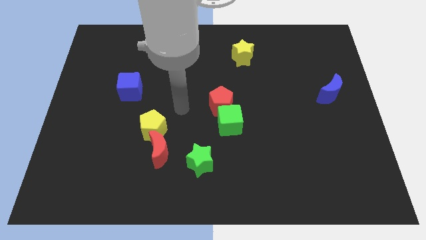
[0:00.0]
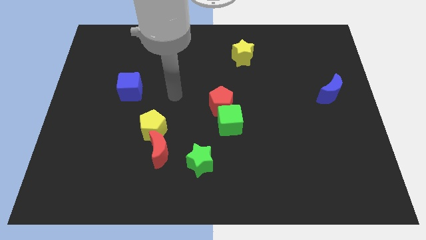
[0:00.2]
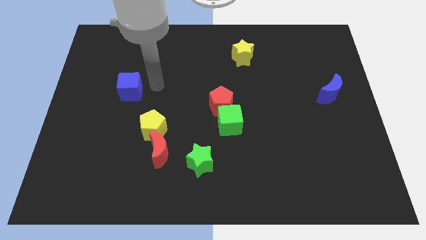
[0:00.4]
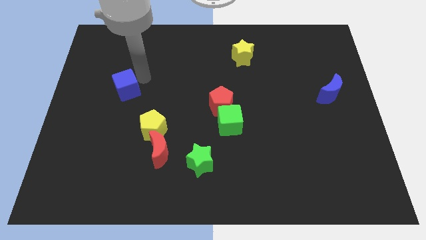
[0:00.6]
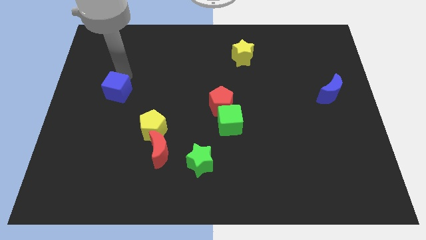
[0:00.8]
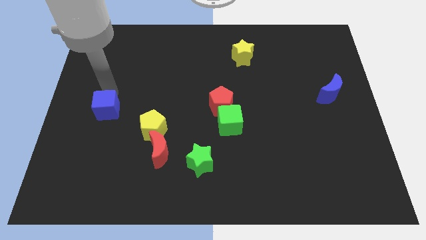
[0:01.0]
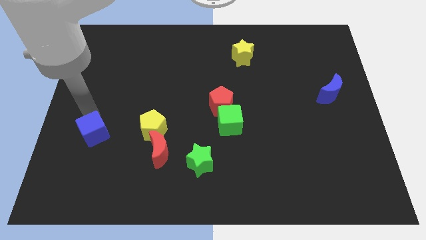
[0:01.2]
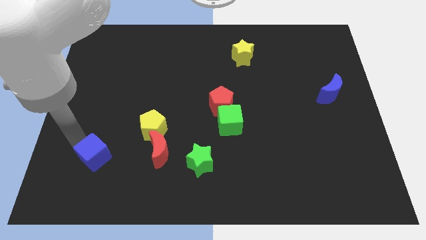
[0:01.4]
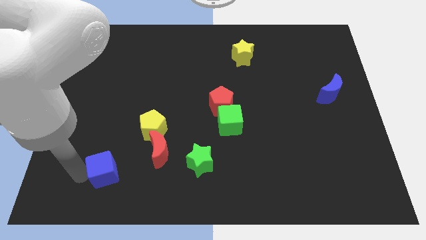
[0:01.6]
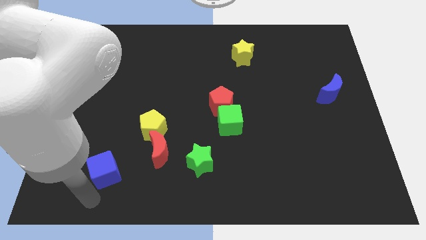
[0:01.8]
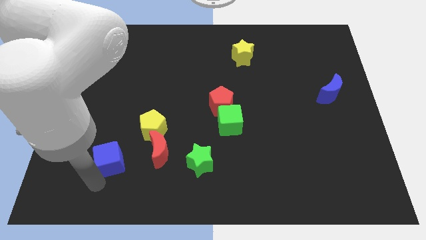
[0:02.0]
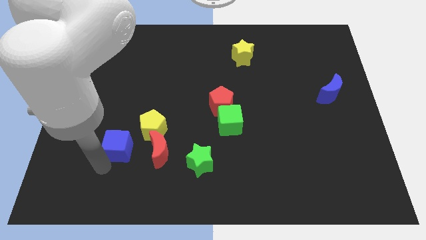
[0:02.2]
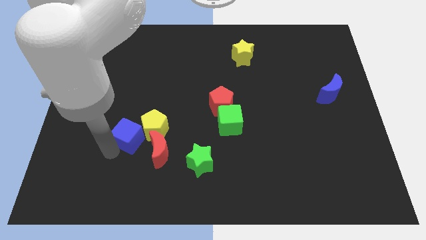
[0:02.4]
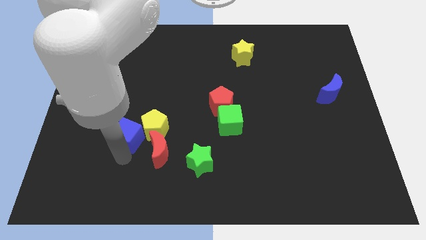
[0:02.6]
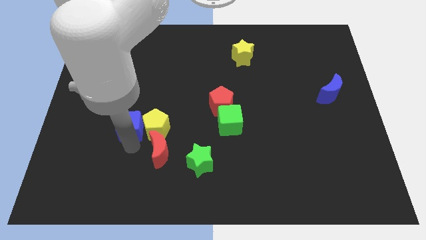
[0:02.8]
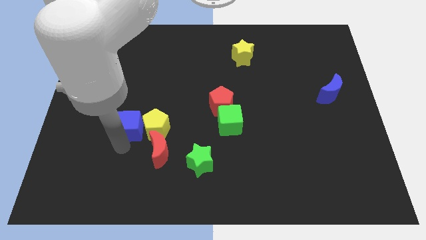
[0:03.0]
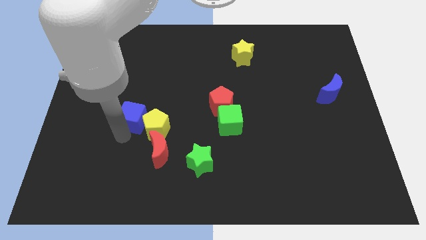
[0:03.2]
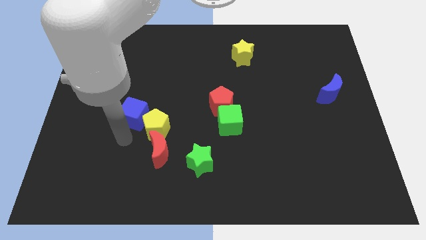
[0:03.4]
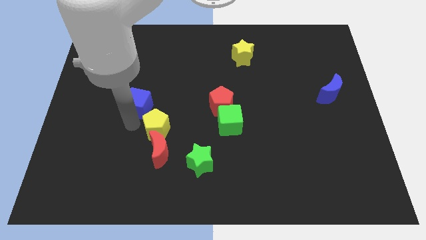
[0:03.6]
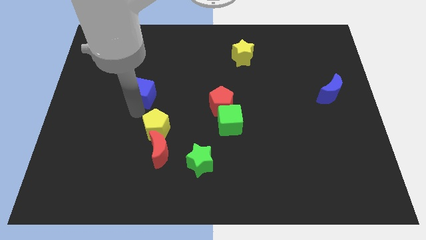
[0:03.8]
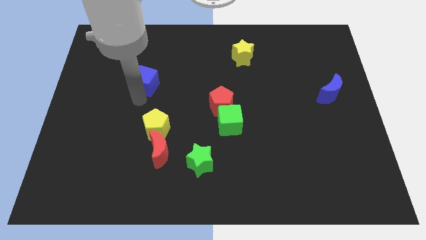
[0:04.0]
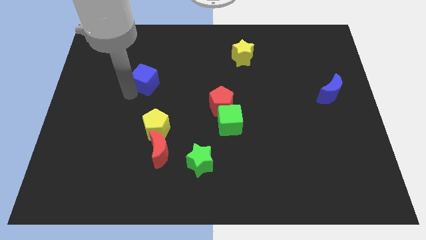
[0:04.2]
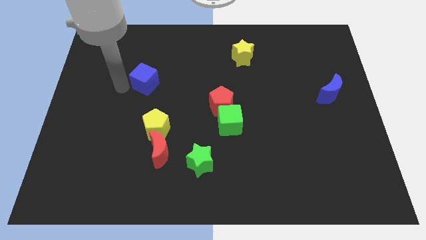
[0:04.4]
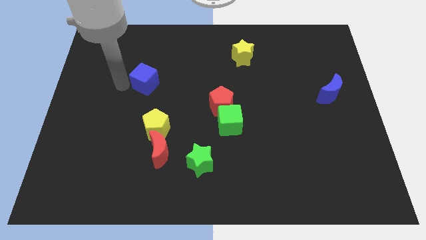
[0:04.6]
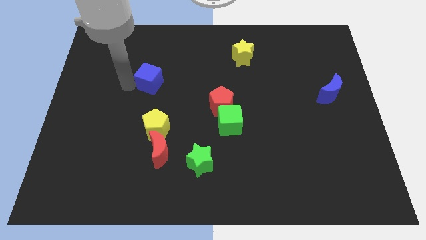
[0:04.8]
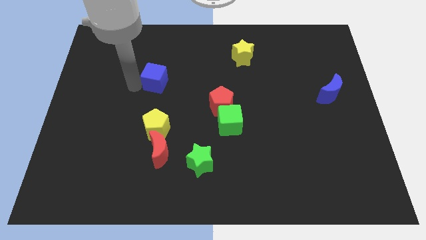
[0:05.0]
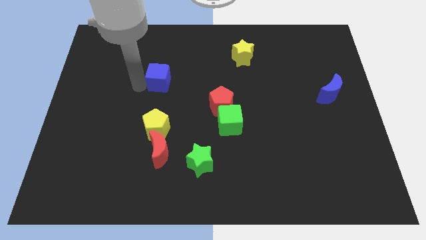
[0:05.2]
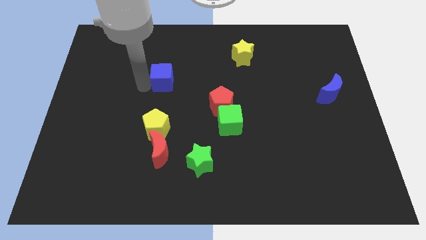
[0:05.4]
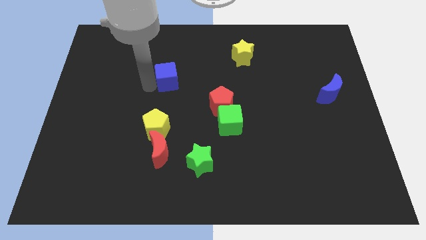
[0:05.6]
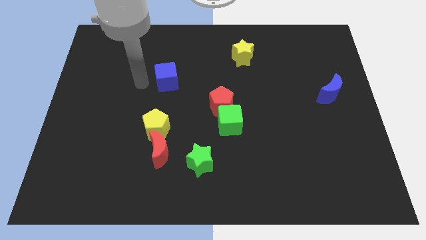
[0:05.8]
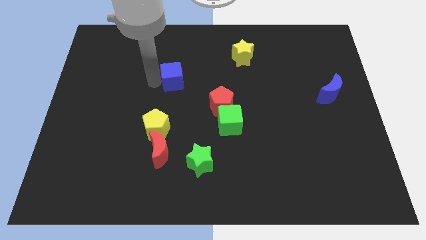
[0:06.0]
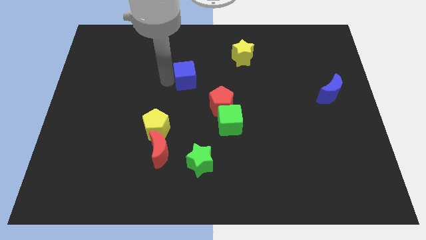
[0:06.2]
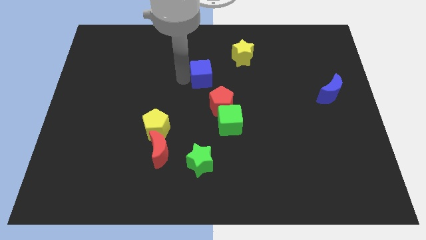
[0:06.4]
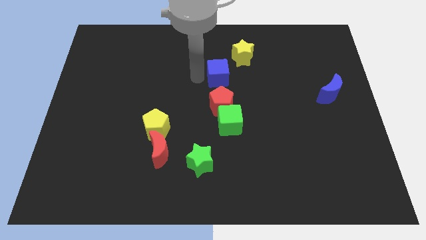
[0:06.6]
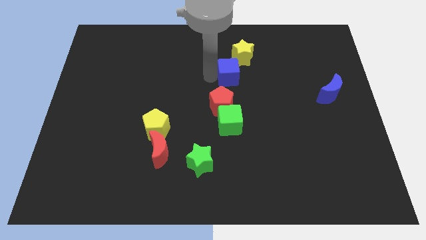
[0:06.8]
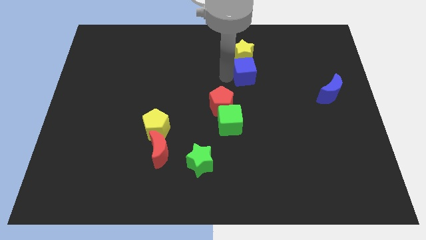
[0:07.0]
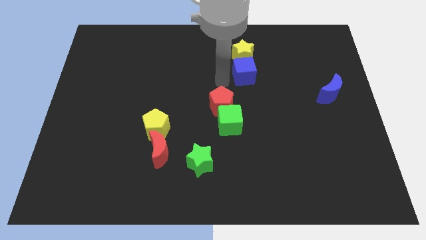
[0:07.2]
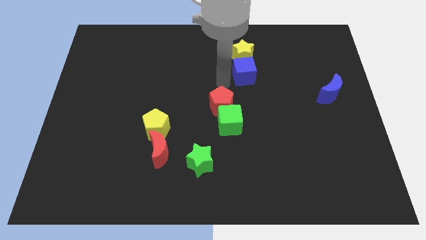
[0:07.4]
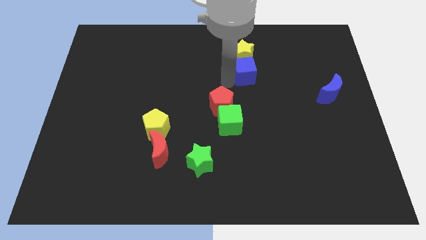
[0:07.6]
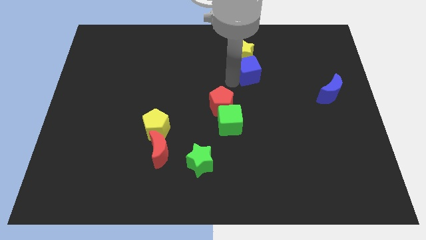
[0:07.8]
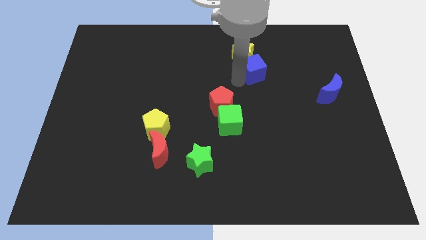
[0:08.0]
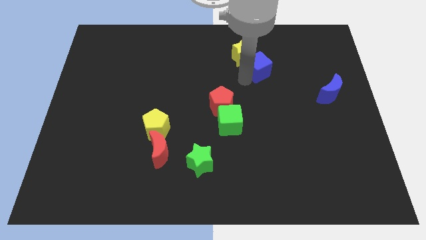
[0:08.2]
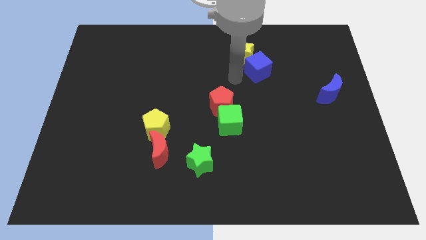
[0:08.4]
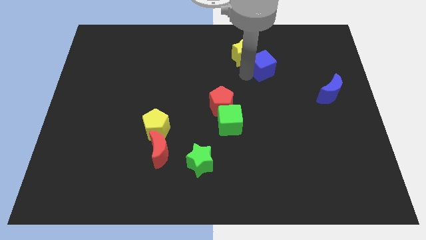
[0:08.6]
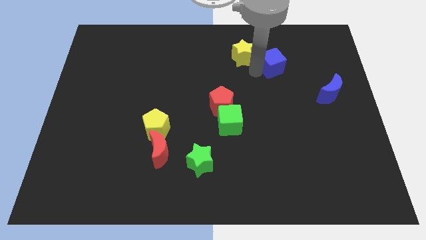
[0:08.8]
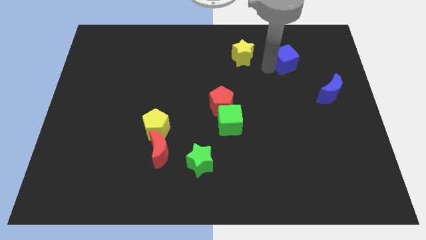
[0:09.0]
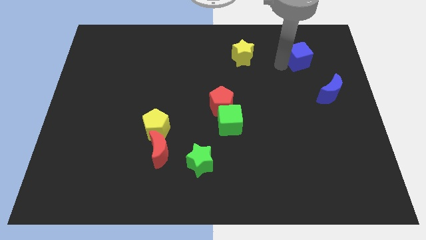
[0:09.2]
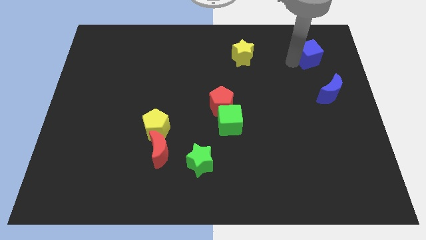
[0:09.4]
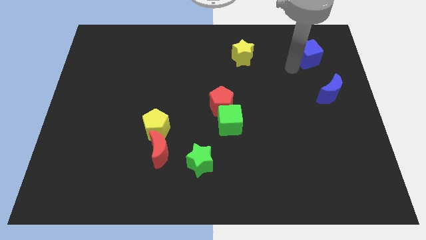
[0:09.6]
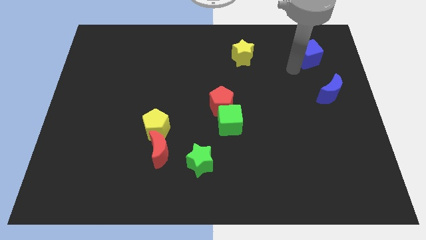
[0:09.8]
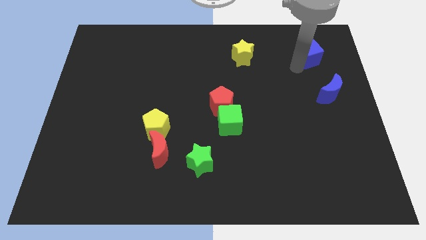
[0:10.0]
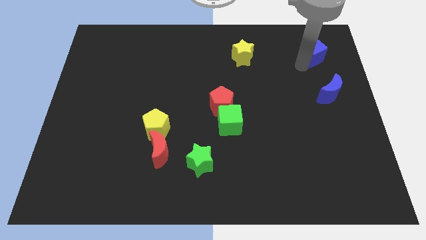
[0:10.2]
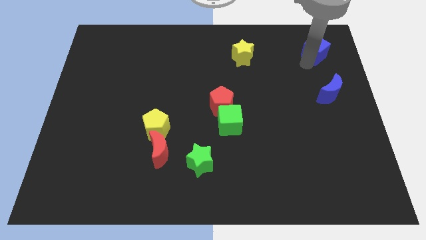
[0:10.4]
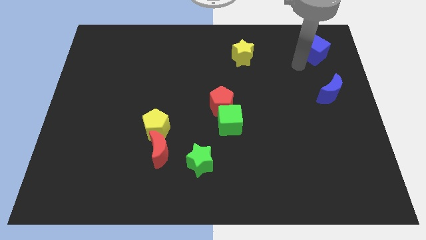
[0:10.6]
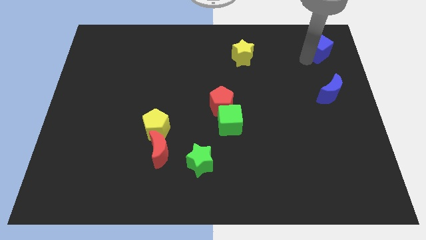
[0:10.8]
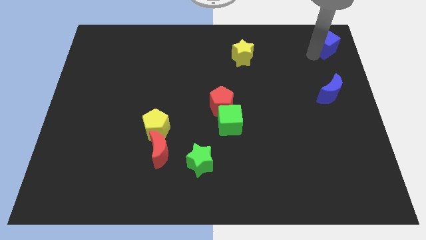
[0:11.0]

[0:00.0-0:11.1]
move the blue cube to the upper right corner

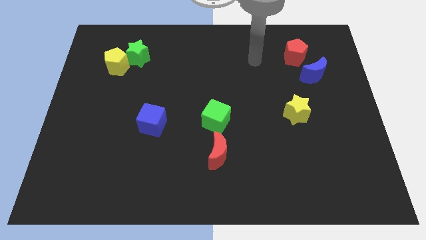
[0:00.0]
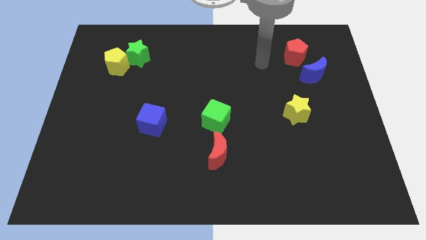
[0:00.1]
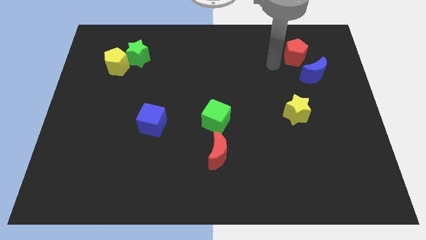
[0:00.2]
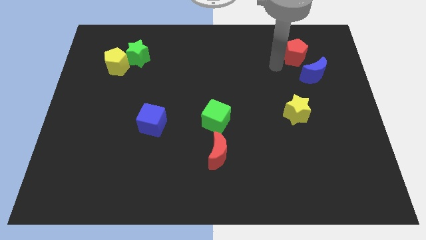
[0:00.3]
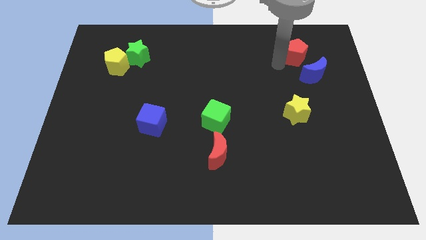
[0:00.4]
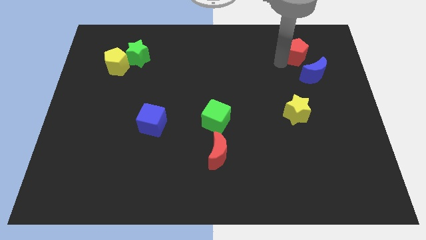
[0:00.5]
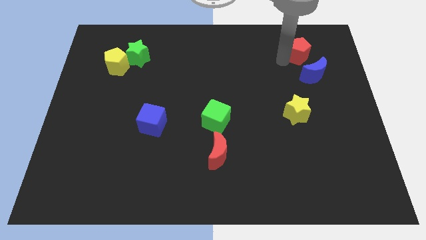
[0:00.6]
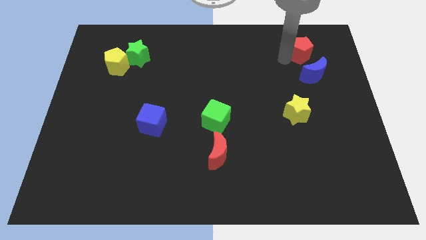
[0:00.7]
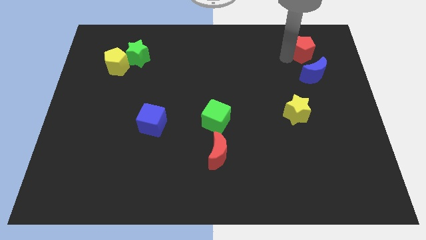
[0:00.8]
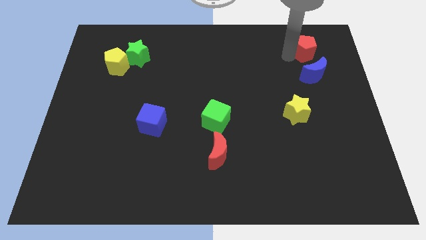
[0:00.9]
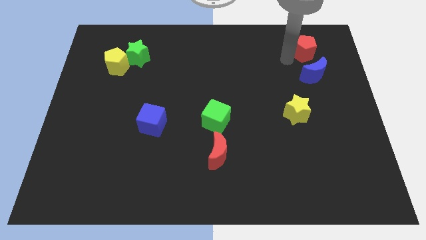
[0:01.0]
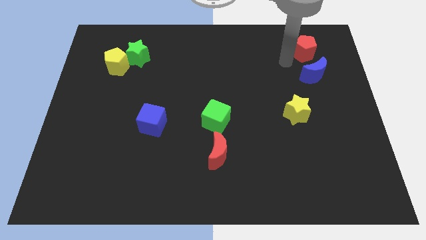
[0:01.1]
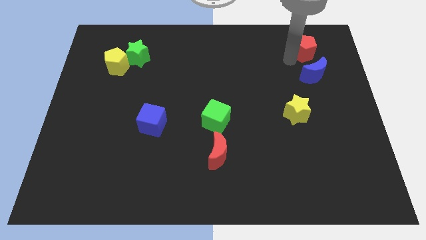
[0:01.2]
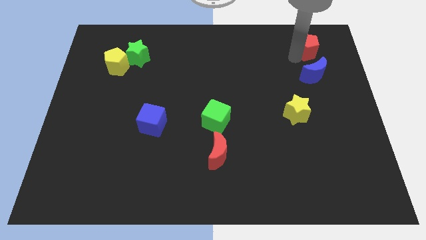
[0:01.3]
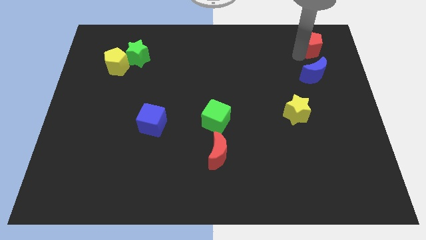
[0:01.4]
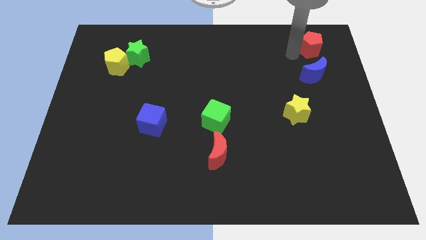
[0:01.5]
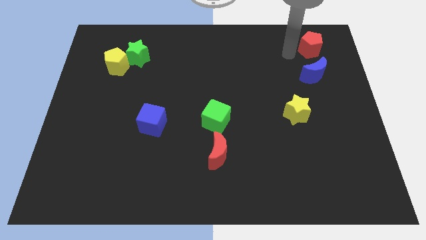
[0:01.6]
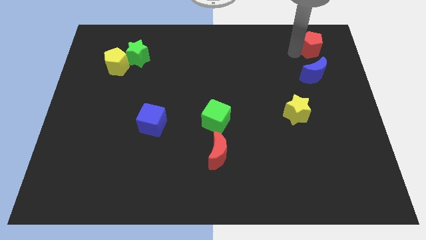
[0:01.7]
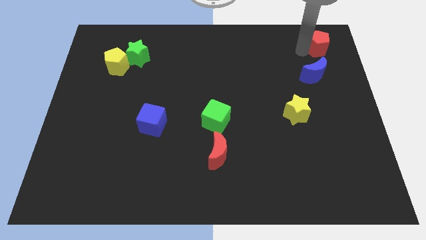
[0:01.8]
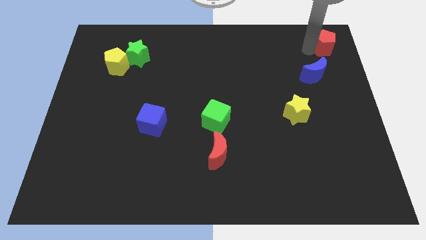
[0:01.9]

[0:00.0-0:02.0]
put the red pentagon to the top right corner
